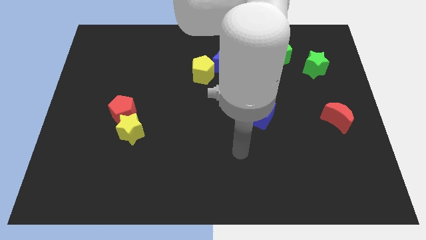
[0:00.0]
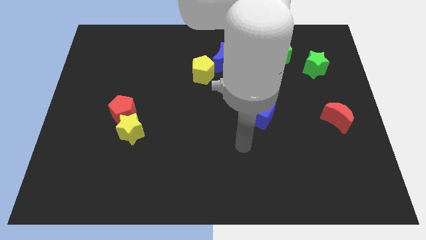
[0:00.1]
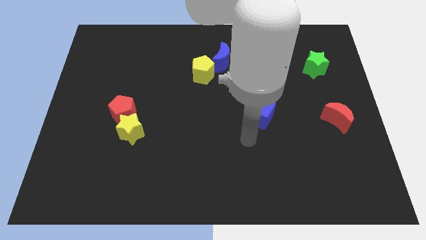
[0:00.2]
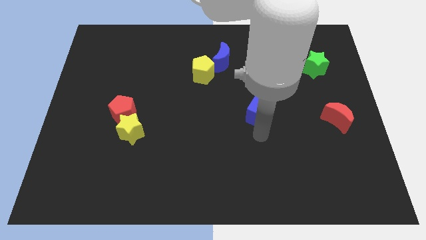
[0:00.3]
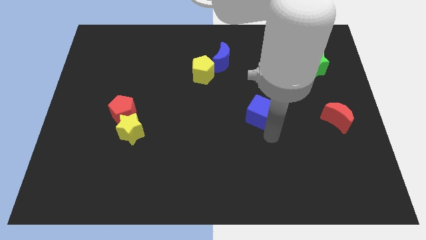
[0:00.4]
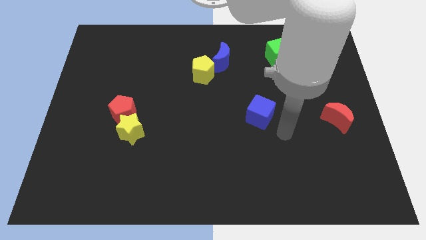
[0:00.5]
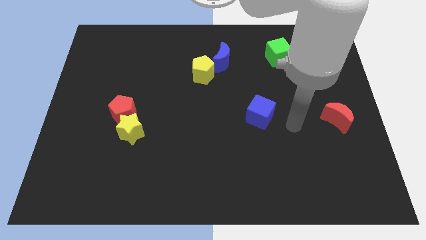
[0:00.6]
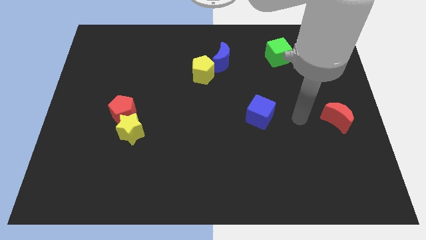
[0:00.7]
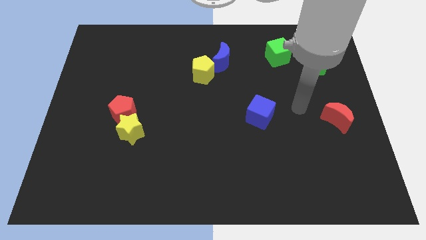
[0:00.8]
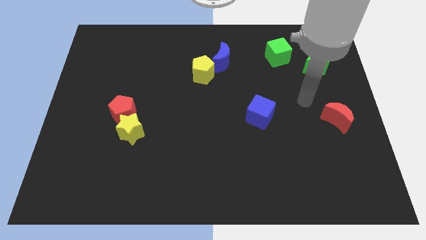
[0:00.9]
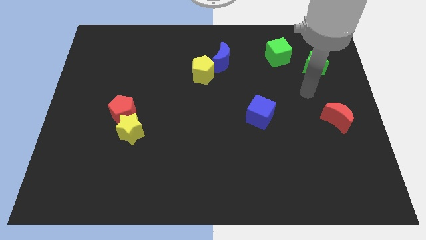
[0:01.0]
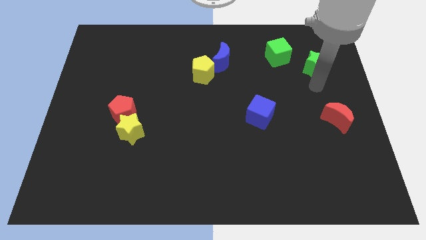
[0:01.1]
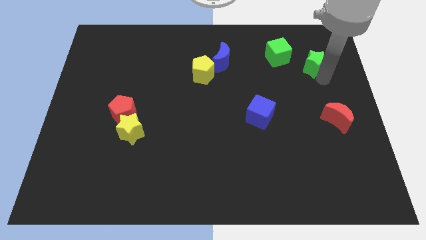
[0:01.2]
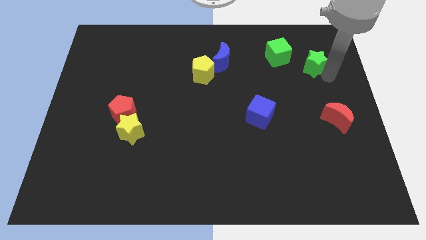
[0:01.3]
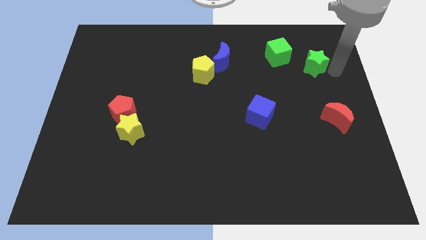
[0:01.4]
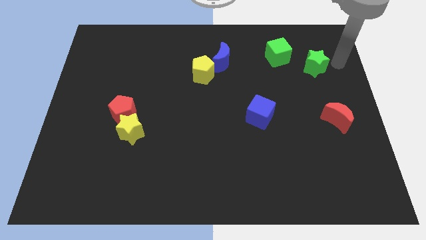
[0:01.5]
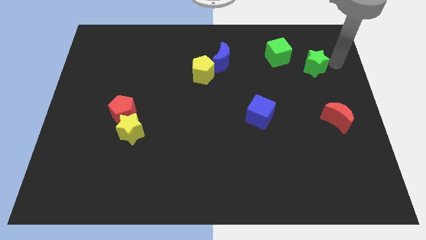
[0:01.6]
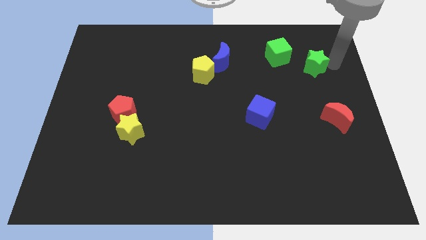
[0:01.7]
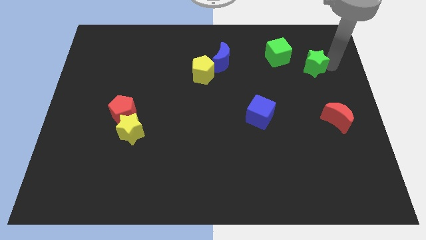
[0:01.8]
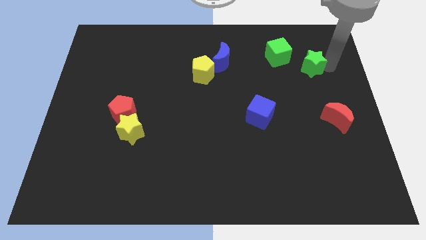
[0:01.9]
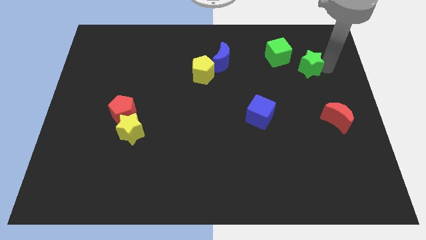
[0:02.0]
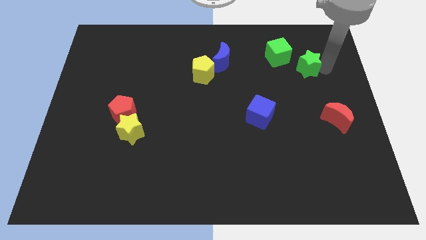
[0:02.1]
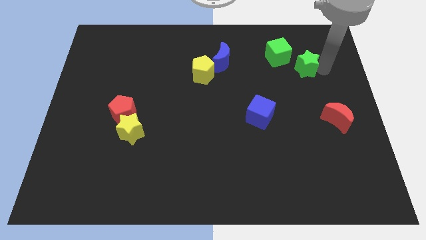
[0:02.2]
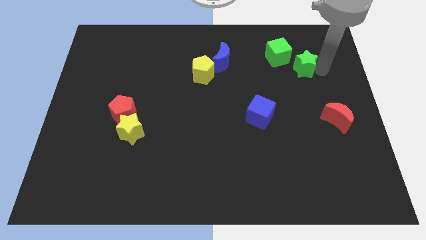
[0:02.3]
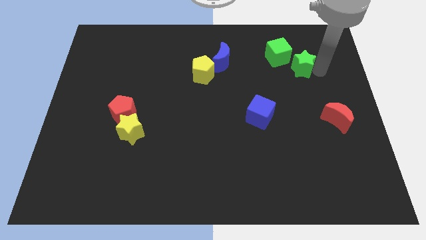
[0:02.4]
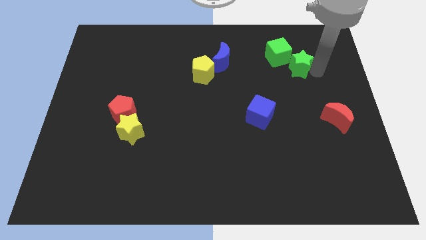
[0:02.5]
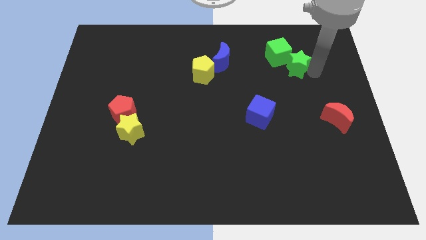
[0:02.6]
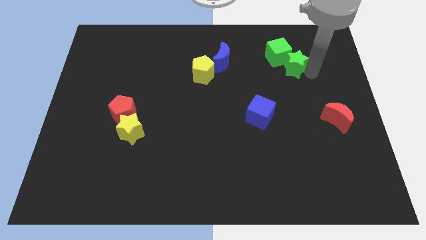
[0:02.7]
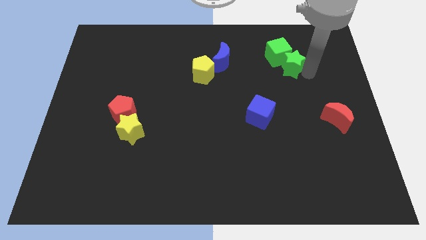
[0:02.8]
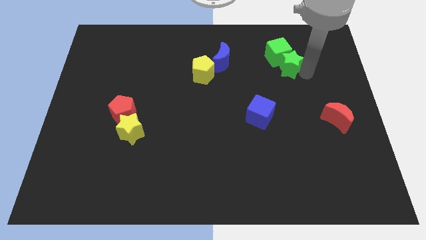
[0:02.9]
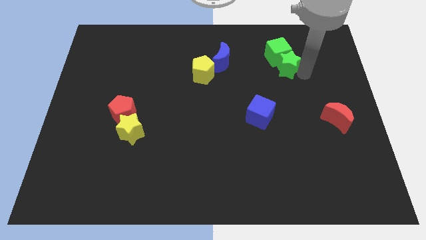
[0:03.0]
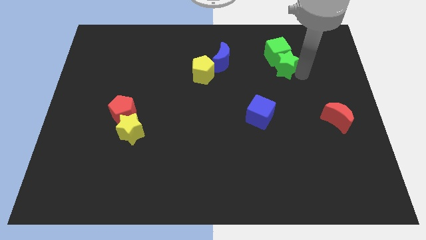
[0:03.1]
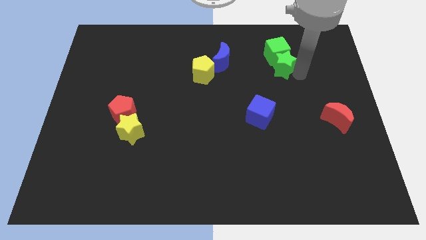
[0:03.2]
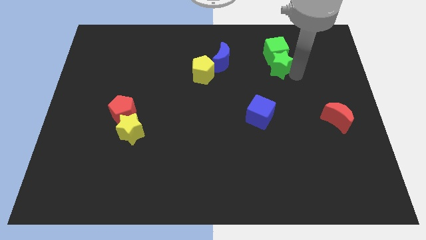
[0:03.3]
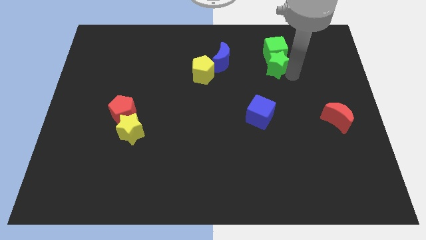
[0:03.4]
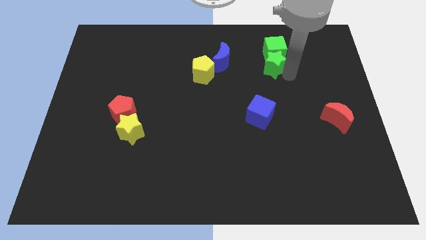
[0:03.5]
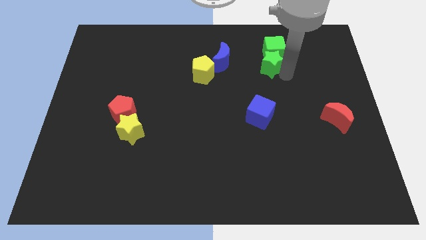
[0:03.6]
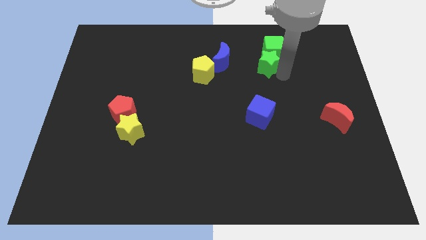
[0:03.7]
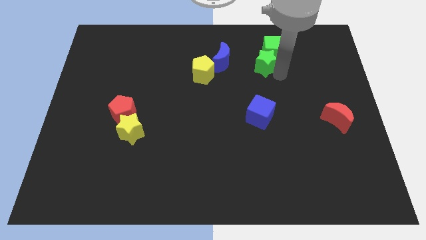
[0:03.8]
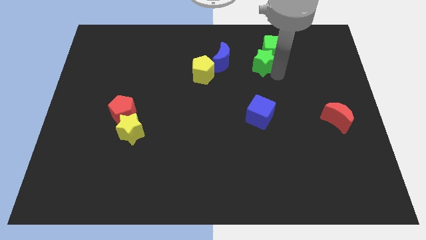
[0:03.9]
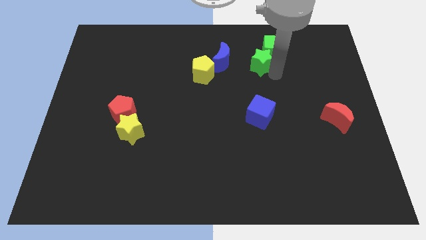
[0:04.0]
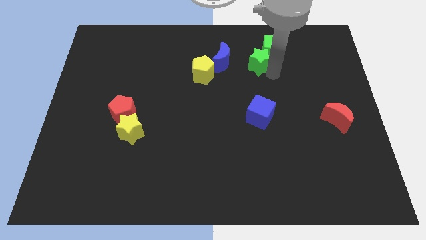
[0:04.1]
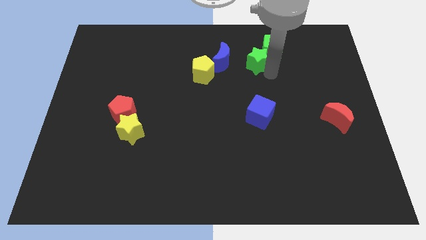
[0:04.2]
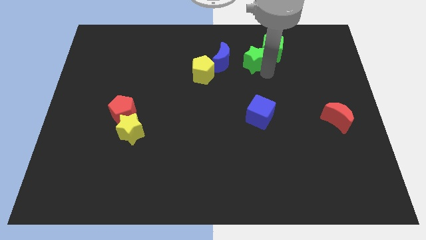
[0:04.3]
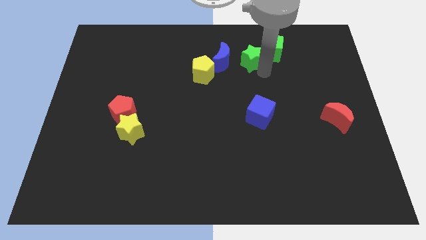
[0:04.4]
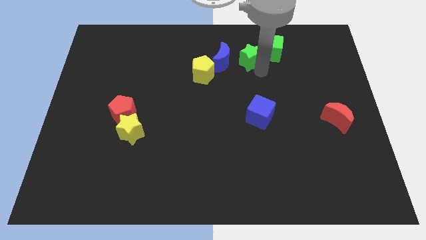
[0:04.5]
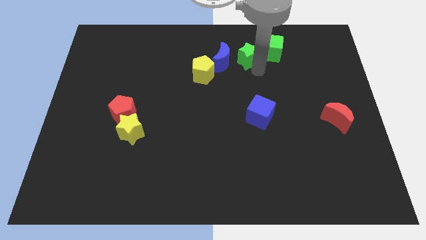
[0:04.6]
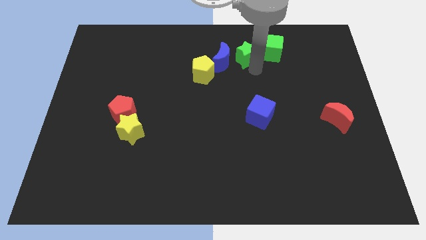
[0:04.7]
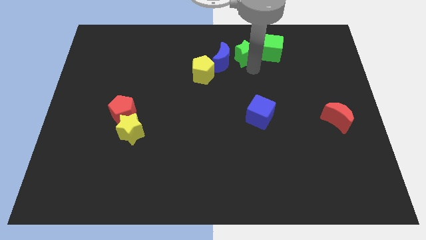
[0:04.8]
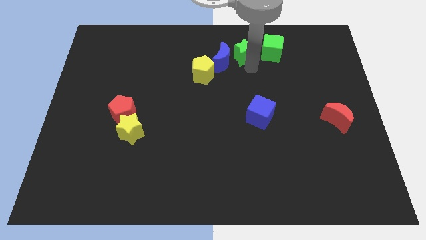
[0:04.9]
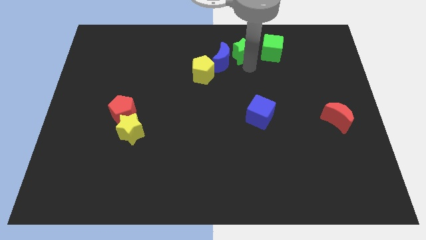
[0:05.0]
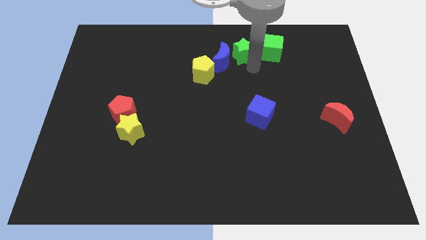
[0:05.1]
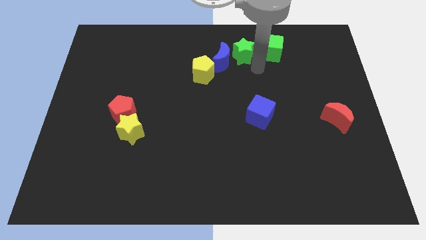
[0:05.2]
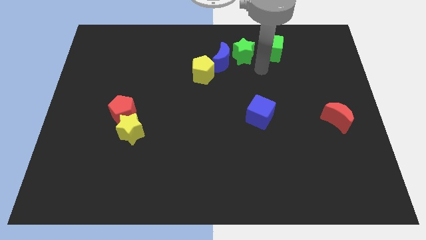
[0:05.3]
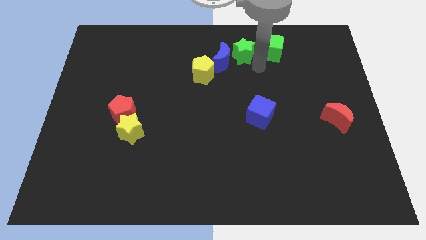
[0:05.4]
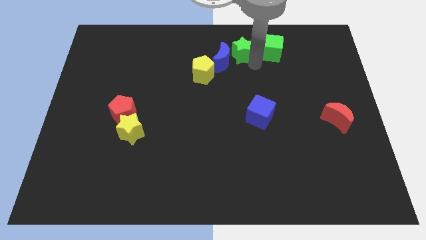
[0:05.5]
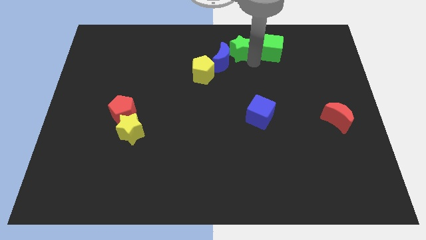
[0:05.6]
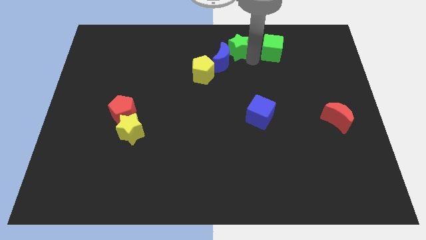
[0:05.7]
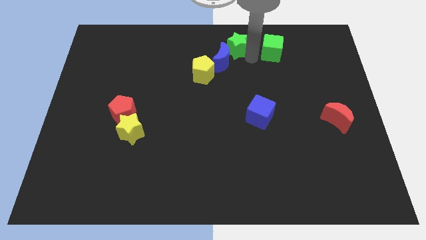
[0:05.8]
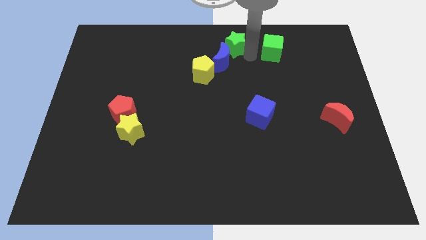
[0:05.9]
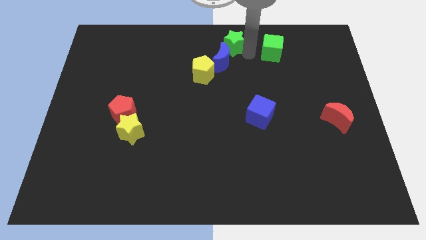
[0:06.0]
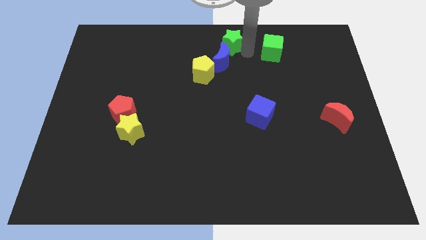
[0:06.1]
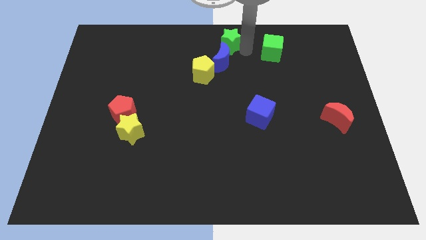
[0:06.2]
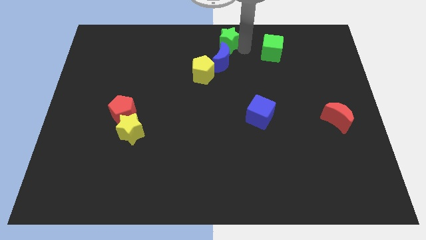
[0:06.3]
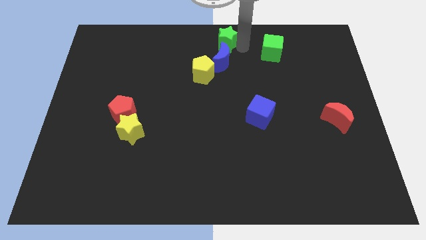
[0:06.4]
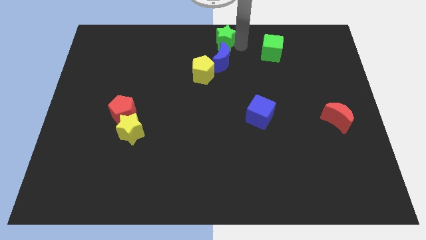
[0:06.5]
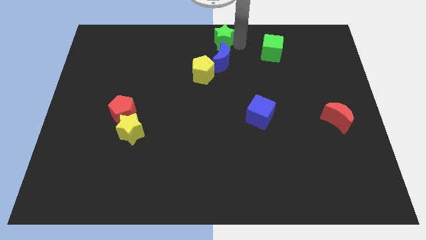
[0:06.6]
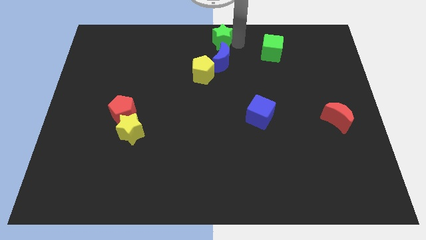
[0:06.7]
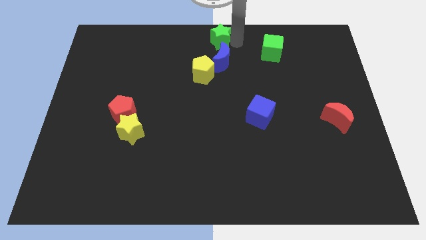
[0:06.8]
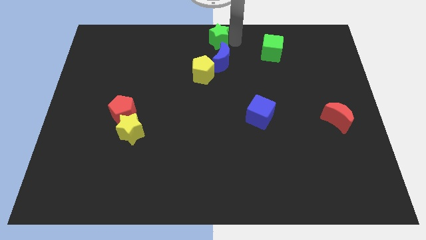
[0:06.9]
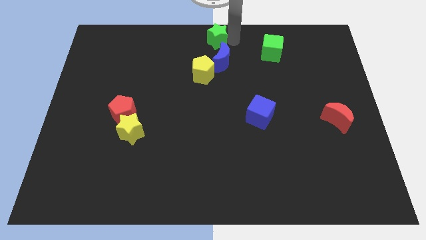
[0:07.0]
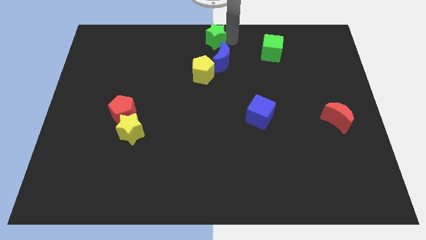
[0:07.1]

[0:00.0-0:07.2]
move the green star to the left

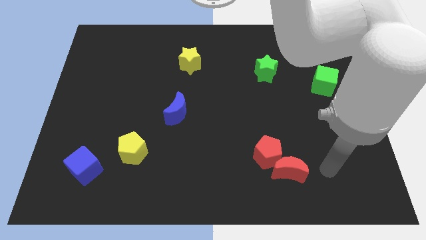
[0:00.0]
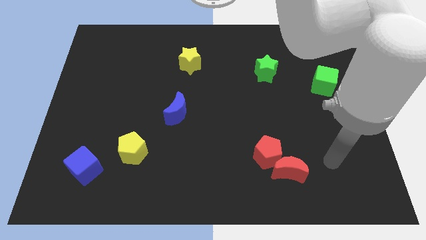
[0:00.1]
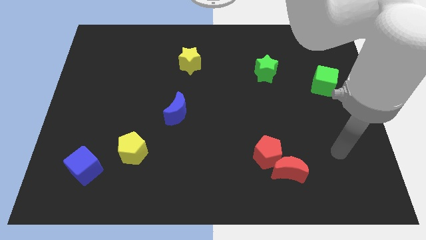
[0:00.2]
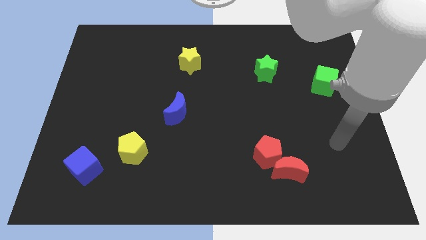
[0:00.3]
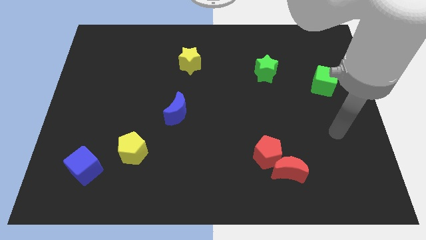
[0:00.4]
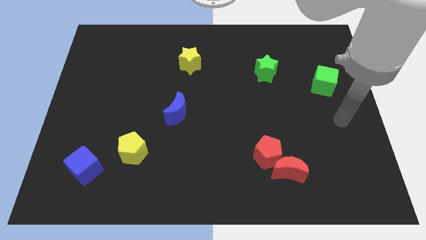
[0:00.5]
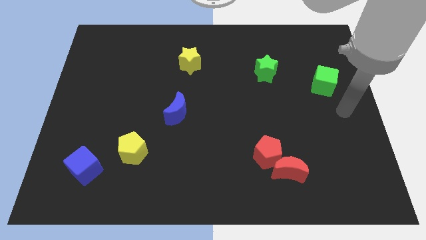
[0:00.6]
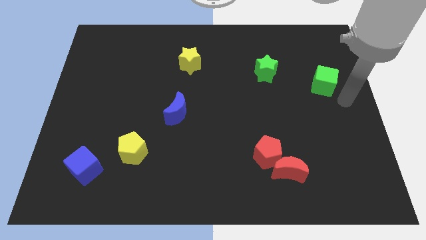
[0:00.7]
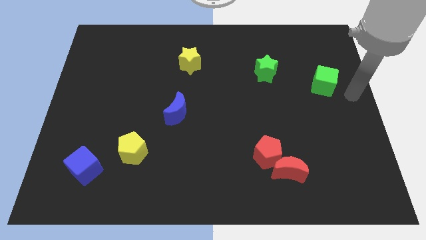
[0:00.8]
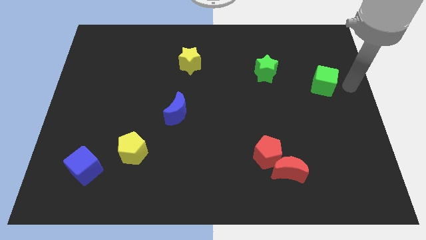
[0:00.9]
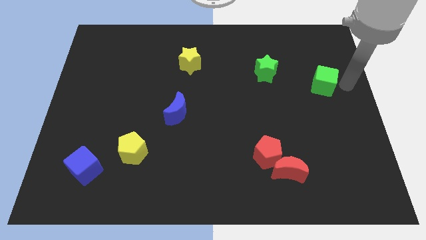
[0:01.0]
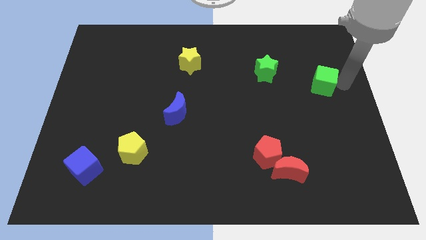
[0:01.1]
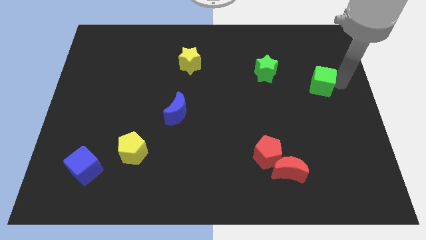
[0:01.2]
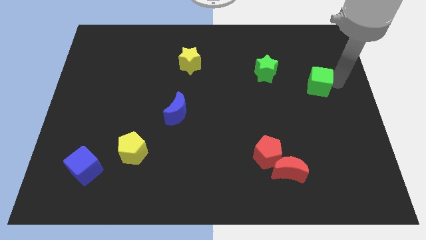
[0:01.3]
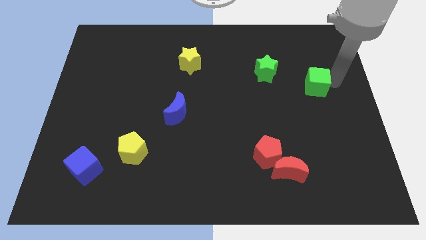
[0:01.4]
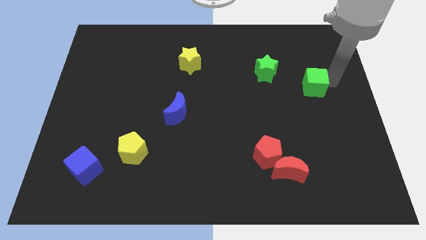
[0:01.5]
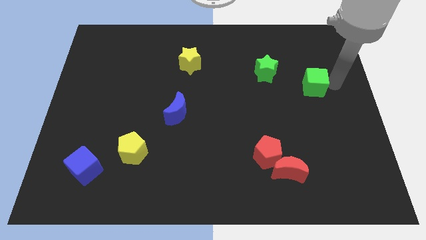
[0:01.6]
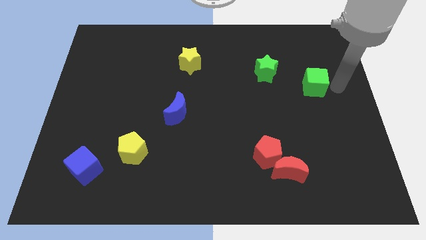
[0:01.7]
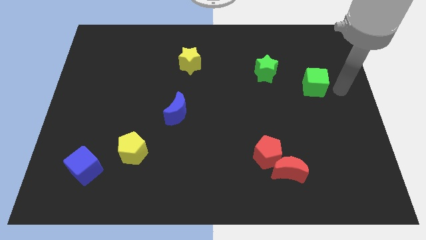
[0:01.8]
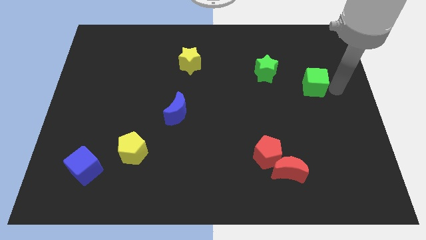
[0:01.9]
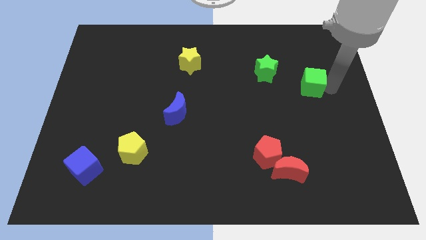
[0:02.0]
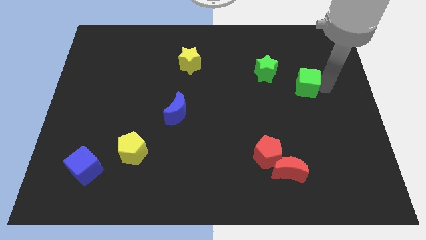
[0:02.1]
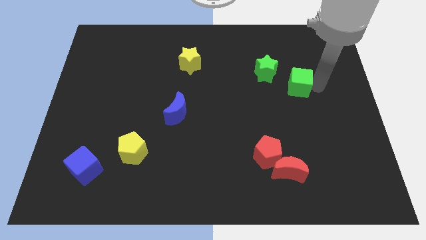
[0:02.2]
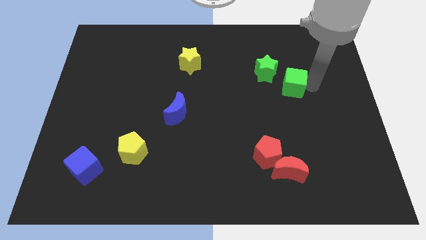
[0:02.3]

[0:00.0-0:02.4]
move the green cube to the left a bit
